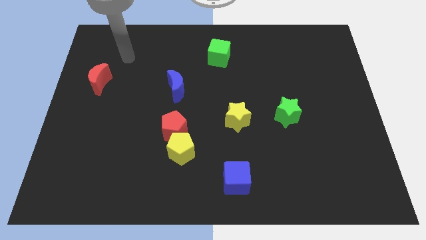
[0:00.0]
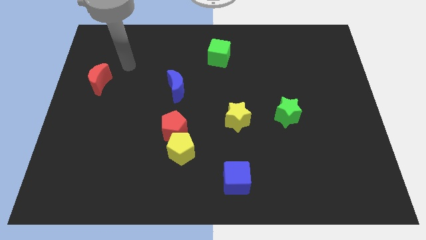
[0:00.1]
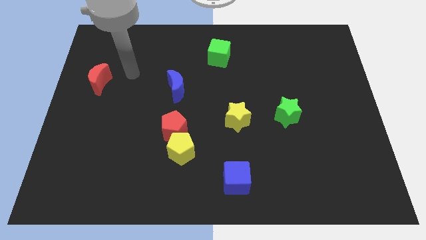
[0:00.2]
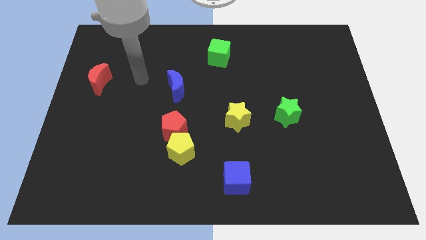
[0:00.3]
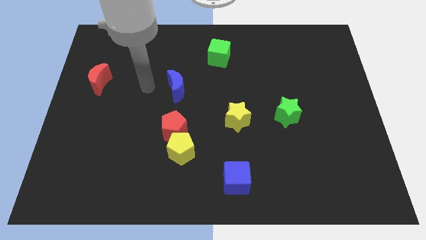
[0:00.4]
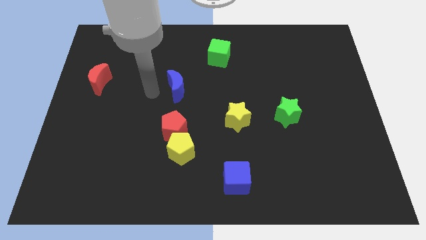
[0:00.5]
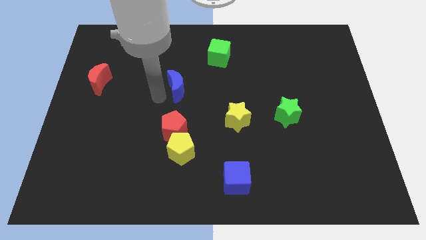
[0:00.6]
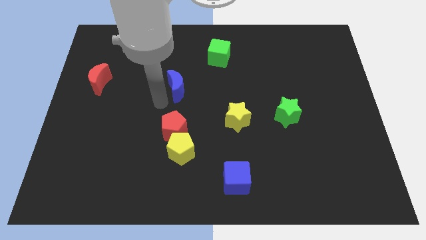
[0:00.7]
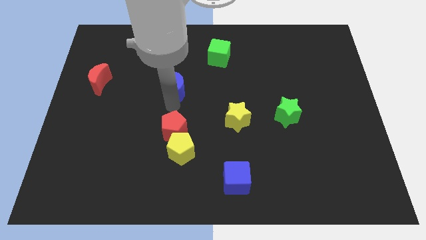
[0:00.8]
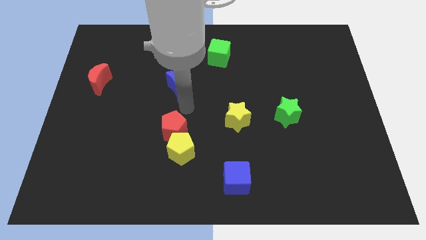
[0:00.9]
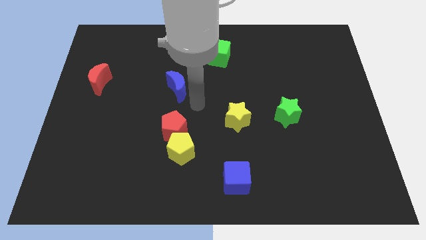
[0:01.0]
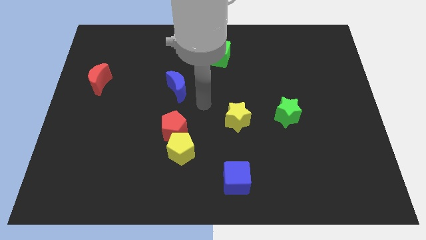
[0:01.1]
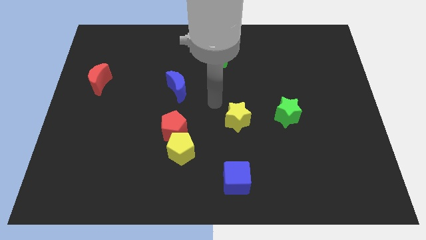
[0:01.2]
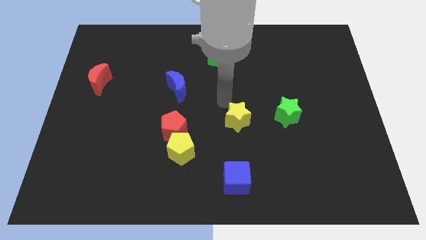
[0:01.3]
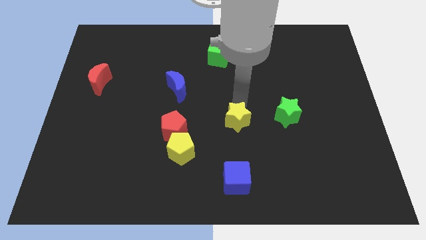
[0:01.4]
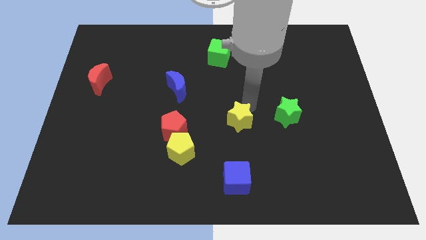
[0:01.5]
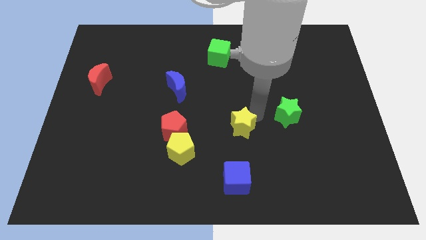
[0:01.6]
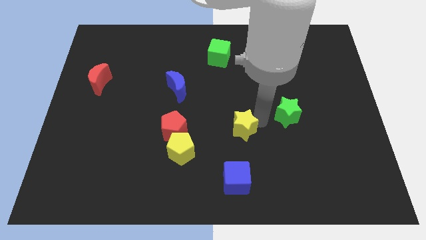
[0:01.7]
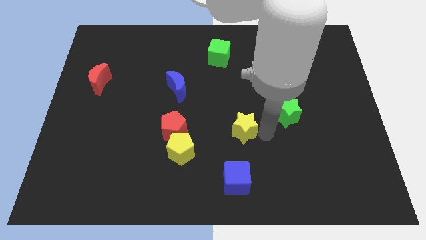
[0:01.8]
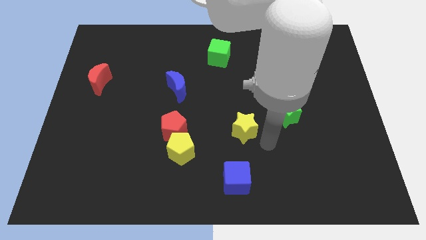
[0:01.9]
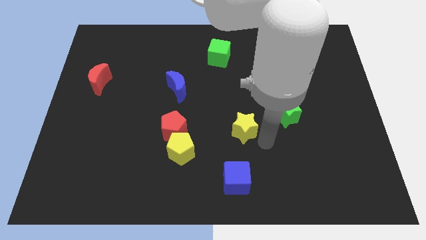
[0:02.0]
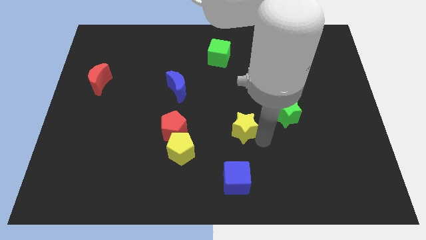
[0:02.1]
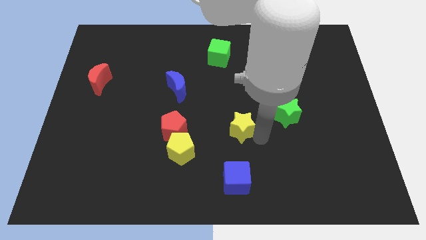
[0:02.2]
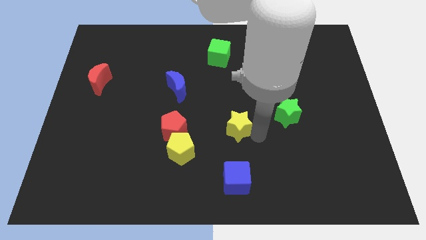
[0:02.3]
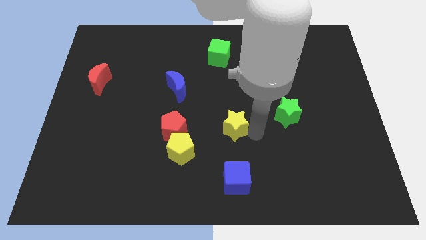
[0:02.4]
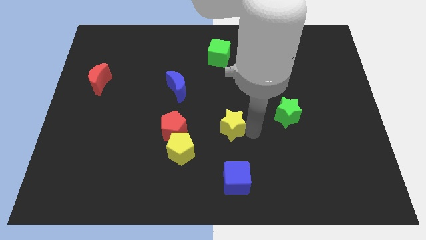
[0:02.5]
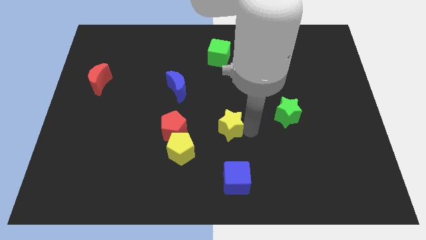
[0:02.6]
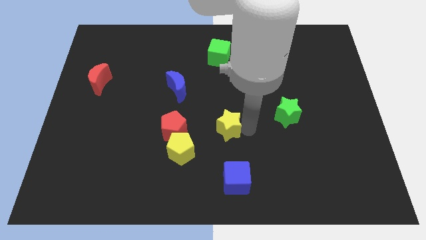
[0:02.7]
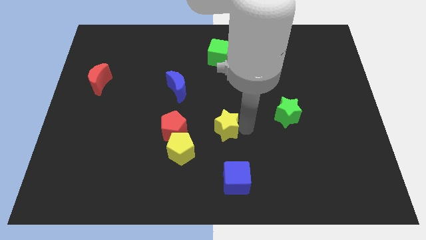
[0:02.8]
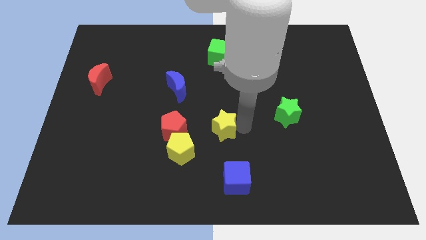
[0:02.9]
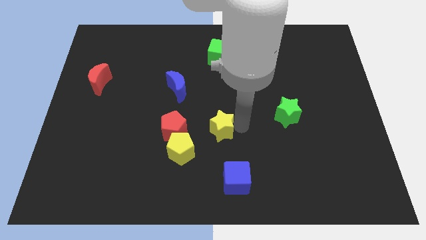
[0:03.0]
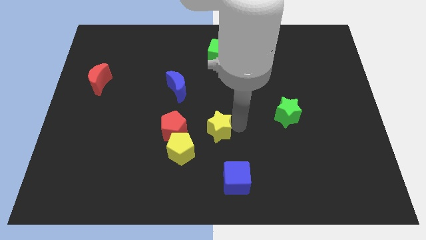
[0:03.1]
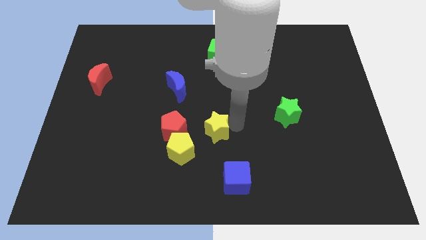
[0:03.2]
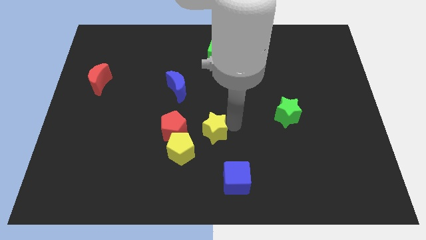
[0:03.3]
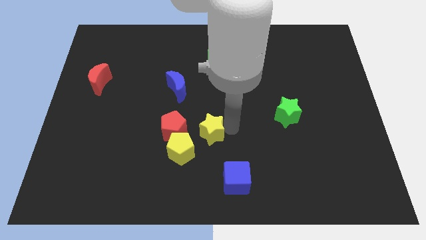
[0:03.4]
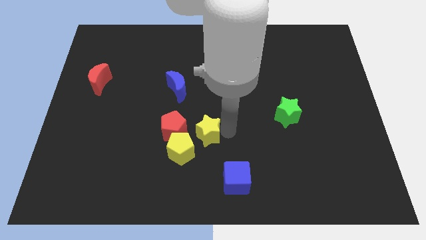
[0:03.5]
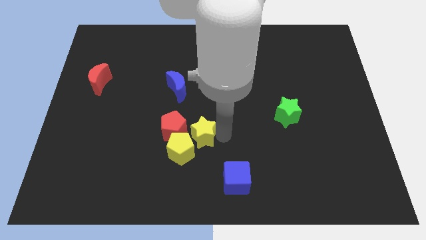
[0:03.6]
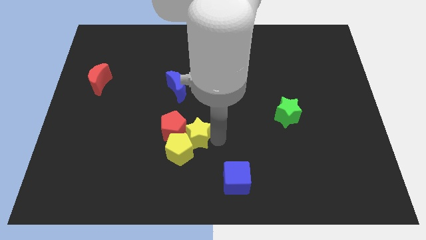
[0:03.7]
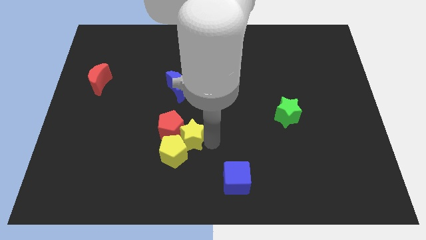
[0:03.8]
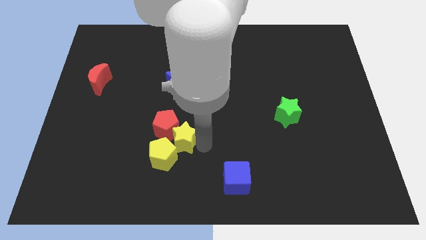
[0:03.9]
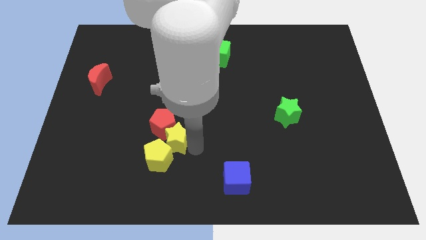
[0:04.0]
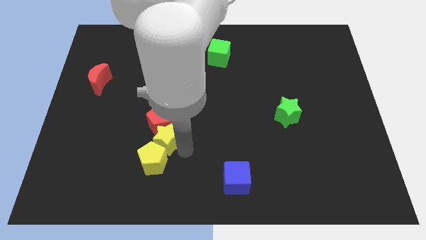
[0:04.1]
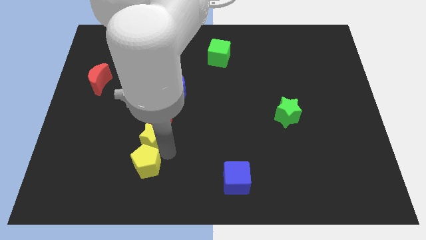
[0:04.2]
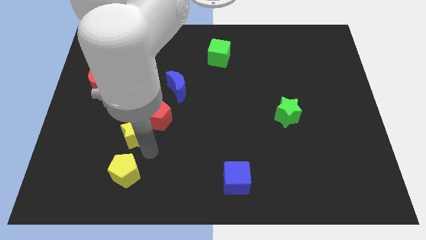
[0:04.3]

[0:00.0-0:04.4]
slide the yellow star to the left

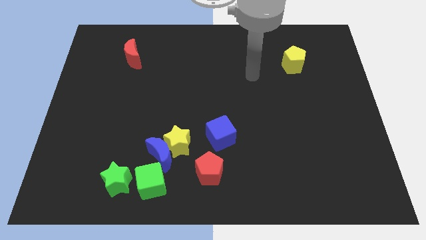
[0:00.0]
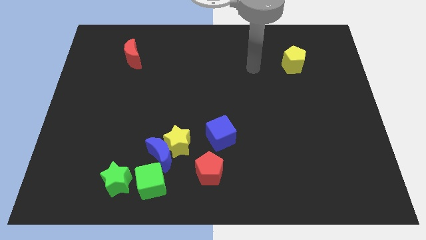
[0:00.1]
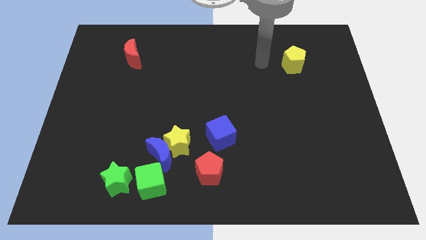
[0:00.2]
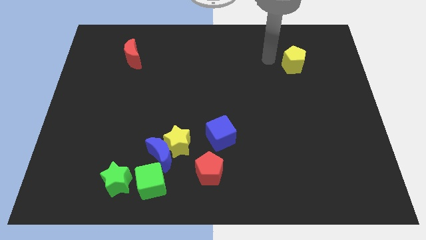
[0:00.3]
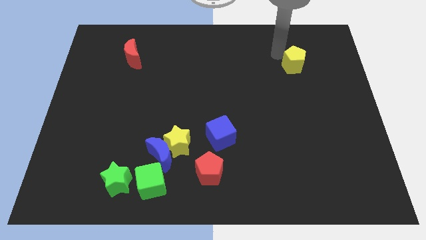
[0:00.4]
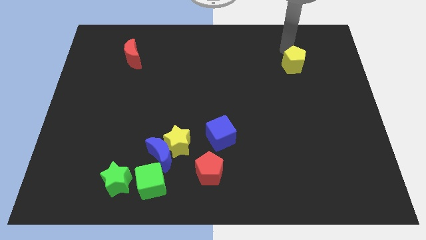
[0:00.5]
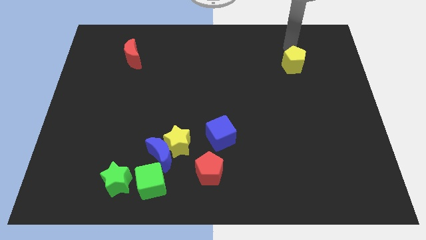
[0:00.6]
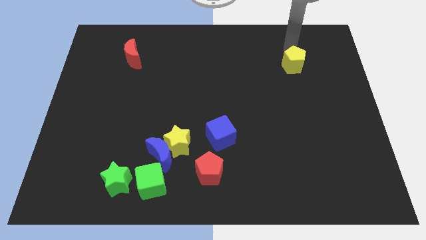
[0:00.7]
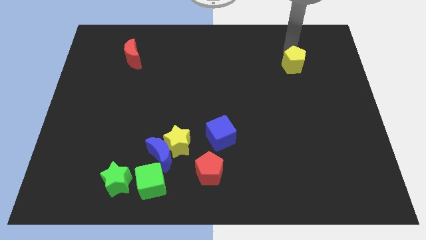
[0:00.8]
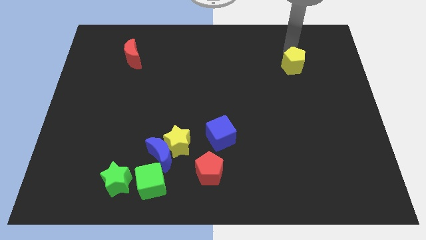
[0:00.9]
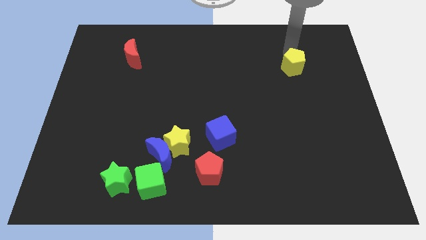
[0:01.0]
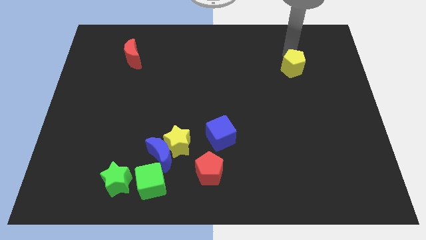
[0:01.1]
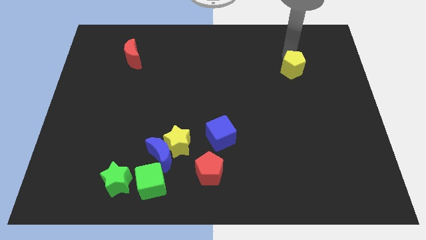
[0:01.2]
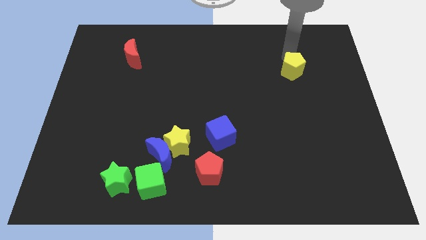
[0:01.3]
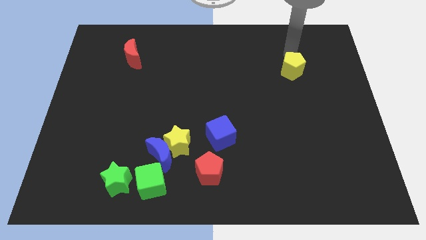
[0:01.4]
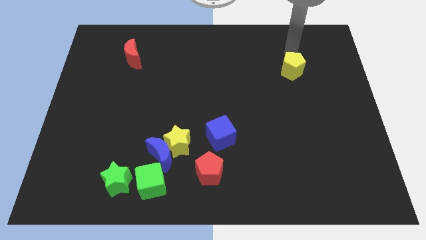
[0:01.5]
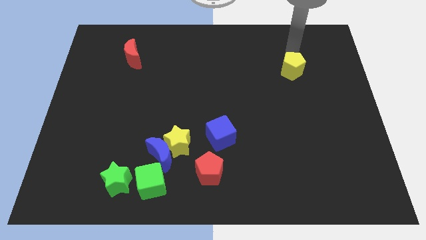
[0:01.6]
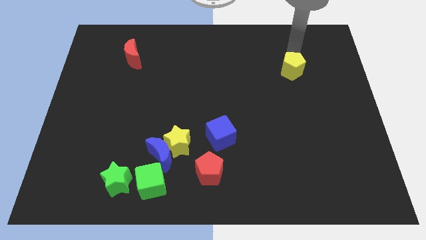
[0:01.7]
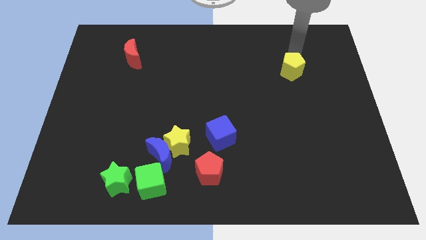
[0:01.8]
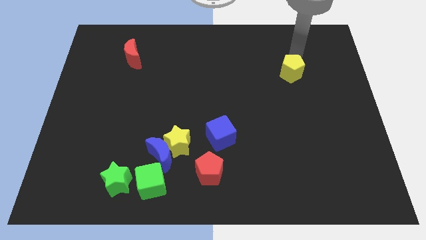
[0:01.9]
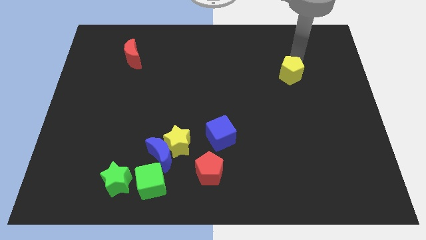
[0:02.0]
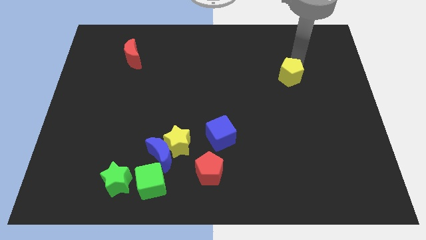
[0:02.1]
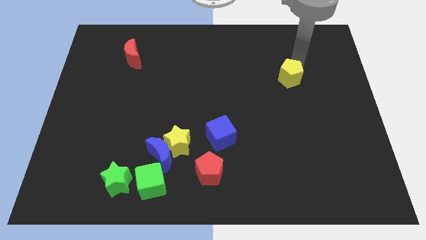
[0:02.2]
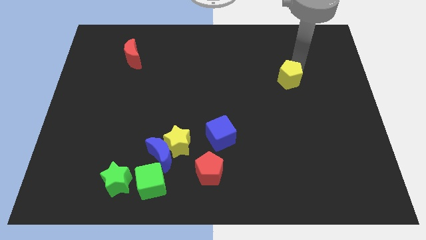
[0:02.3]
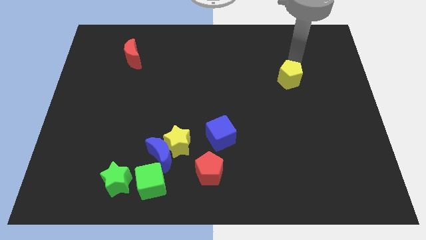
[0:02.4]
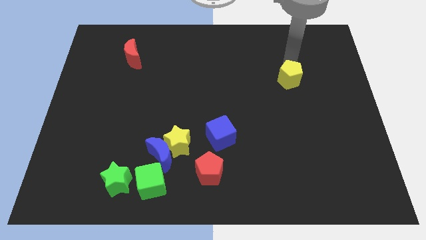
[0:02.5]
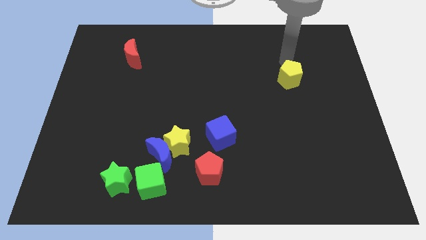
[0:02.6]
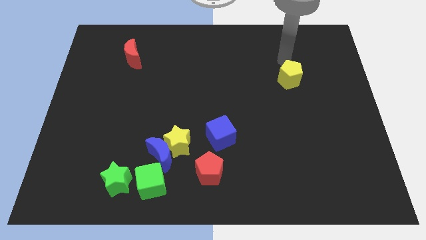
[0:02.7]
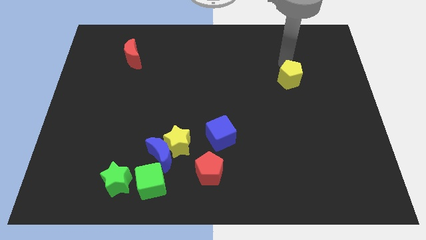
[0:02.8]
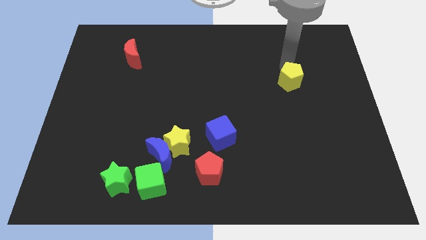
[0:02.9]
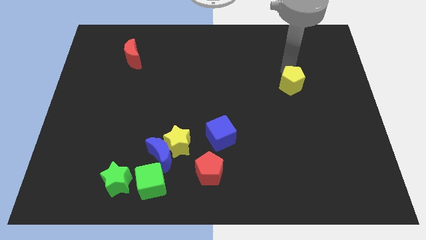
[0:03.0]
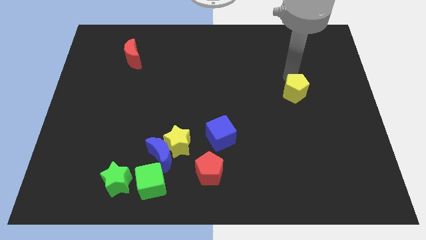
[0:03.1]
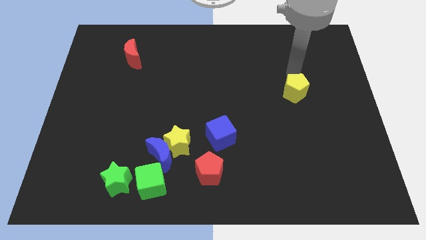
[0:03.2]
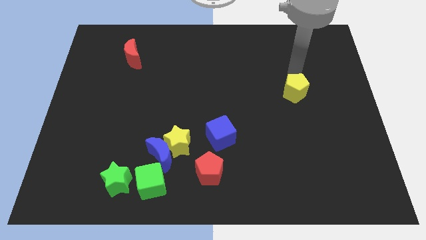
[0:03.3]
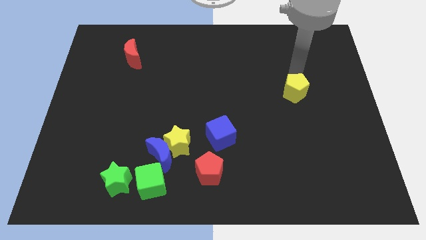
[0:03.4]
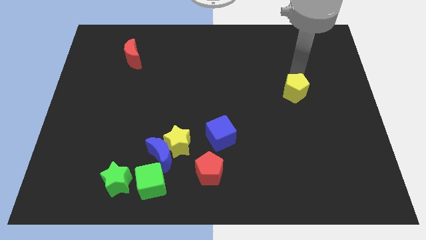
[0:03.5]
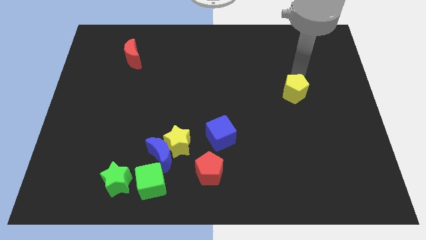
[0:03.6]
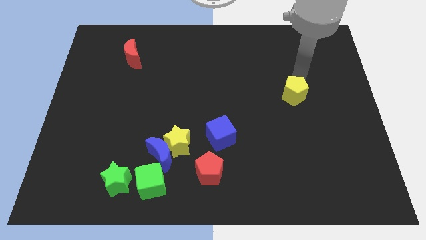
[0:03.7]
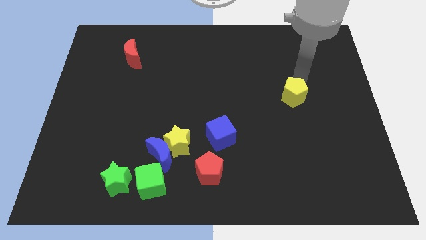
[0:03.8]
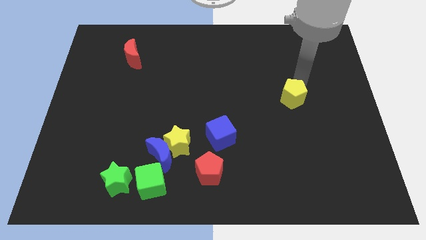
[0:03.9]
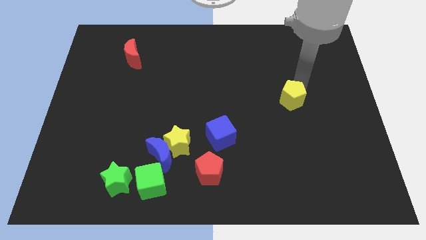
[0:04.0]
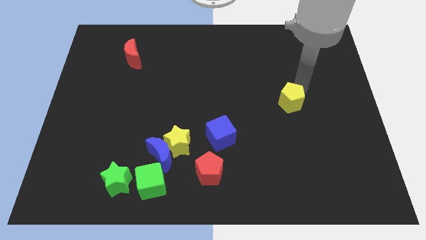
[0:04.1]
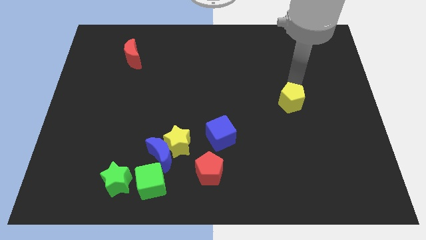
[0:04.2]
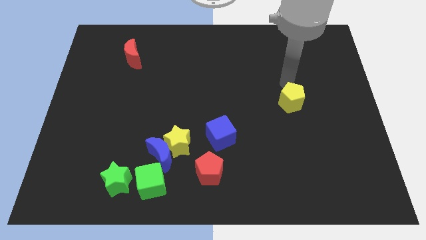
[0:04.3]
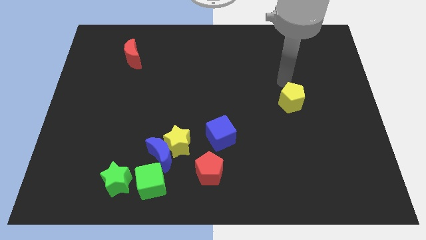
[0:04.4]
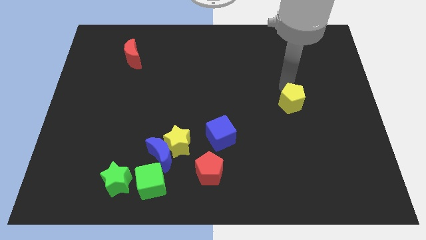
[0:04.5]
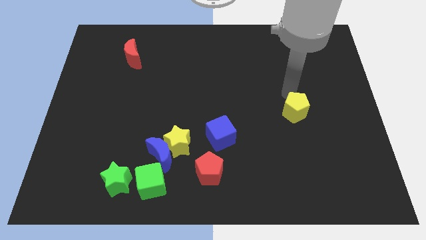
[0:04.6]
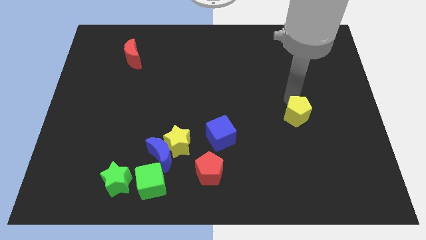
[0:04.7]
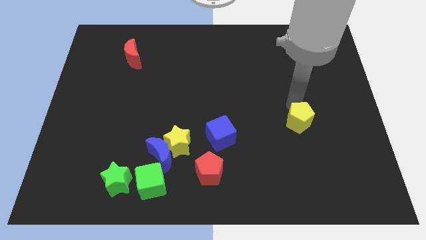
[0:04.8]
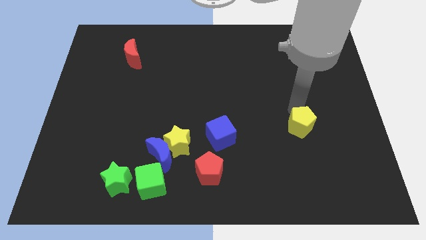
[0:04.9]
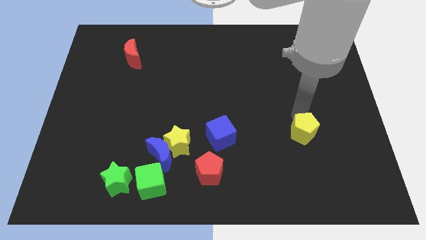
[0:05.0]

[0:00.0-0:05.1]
push the yellow pentagon downwards
